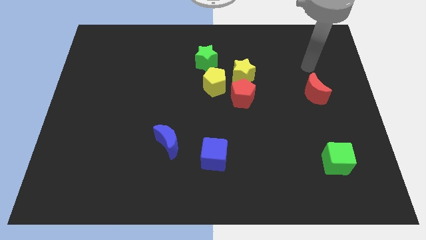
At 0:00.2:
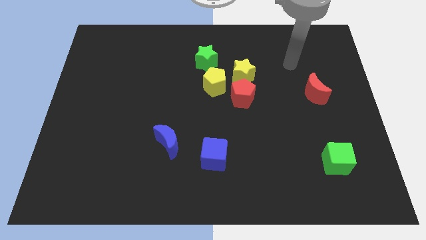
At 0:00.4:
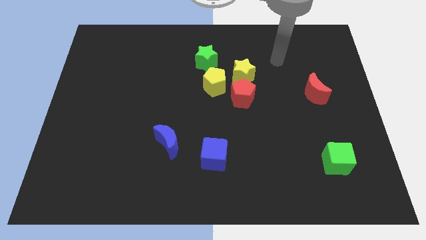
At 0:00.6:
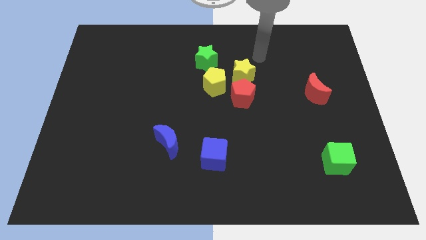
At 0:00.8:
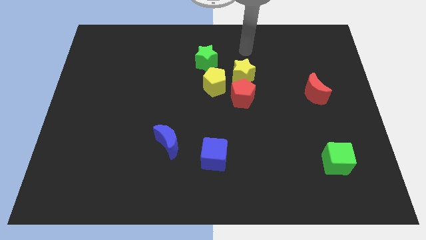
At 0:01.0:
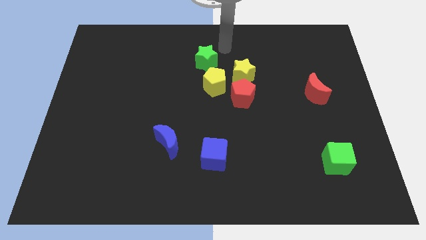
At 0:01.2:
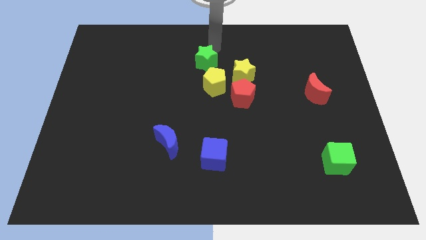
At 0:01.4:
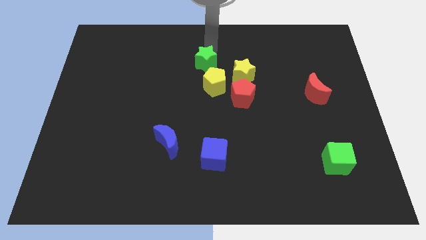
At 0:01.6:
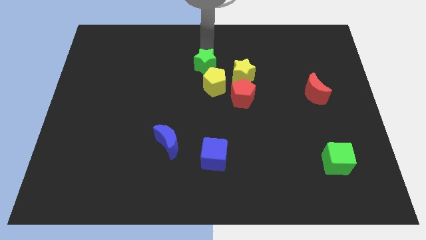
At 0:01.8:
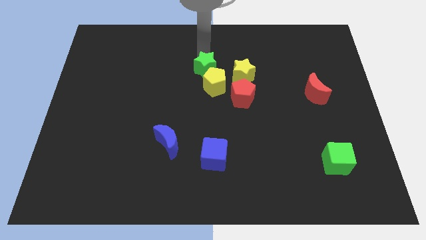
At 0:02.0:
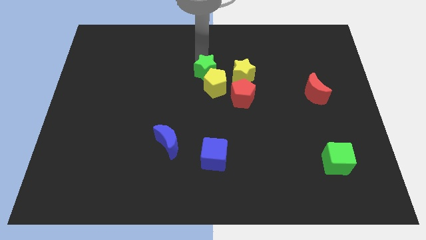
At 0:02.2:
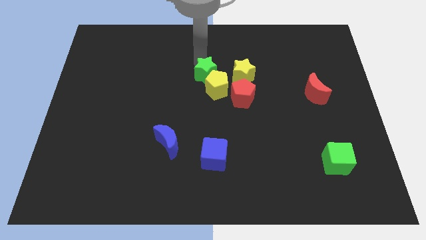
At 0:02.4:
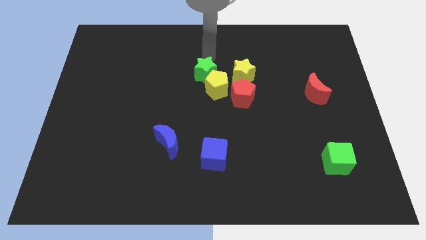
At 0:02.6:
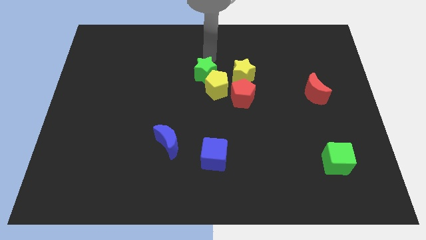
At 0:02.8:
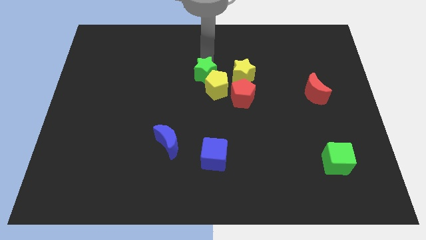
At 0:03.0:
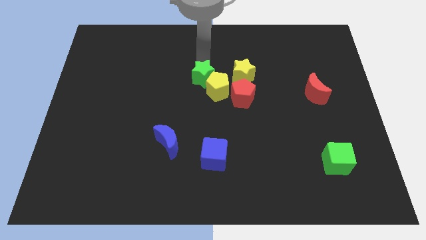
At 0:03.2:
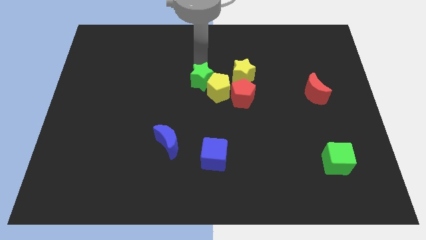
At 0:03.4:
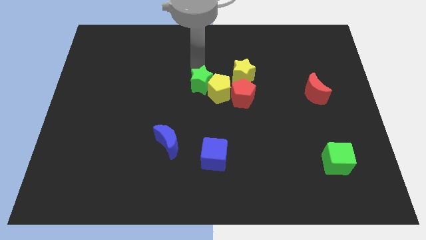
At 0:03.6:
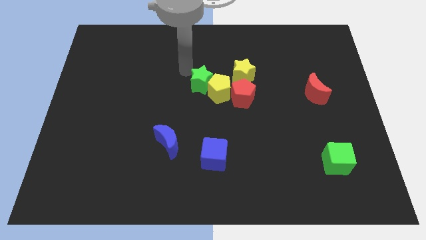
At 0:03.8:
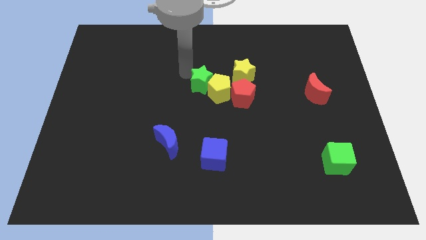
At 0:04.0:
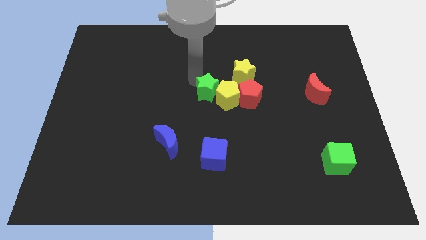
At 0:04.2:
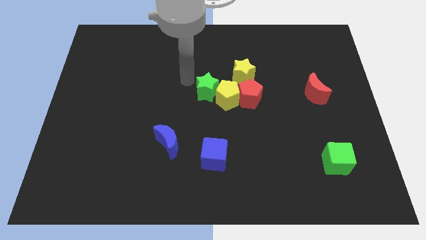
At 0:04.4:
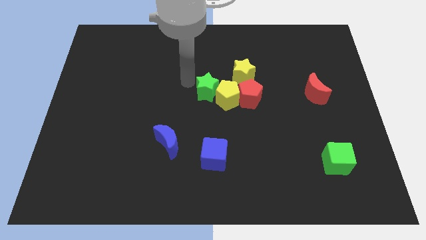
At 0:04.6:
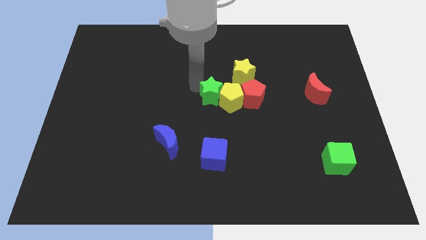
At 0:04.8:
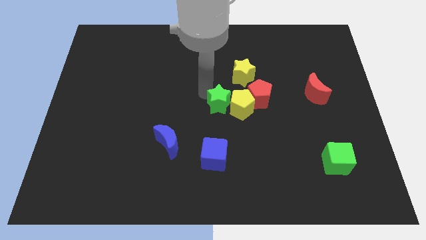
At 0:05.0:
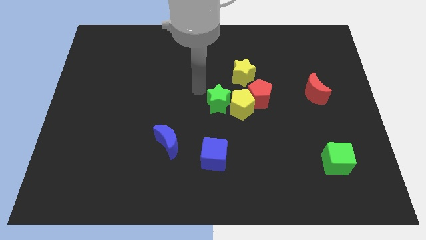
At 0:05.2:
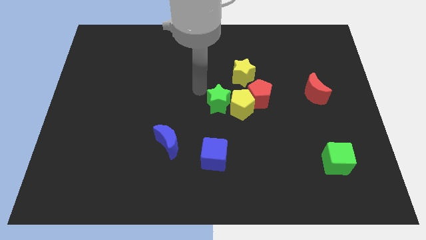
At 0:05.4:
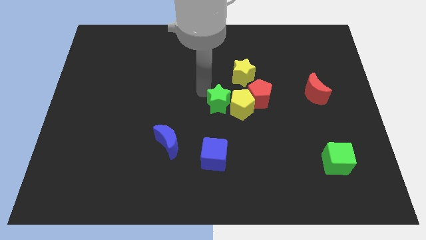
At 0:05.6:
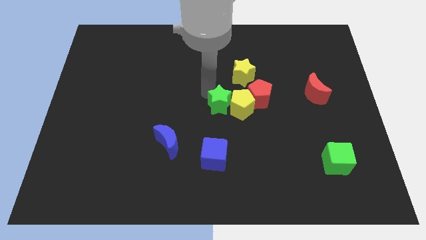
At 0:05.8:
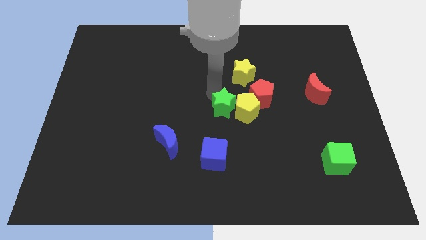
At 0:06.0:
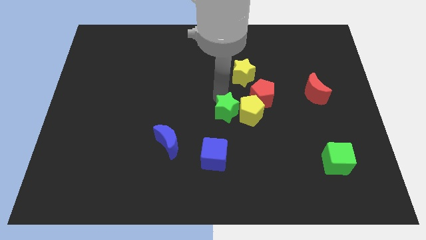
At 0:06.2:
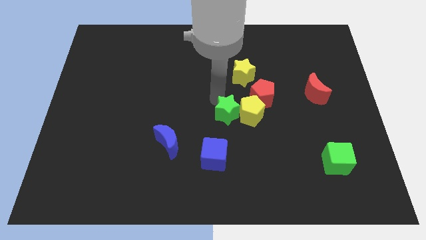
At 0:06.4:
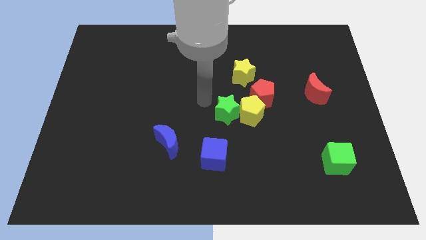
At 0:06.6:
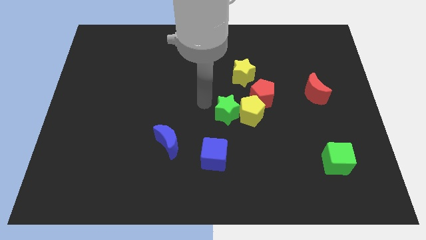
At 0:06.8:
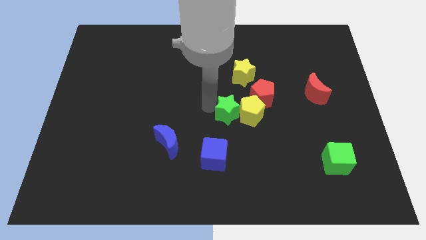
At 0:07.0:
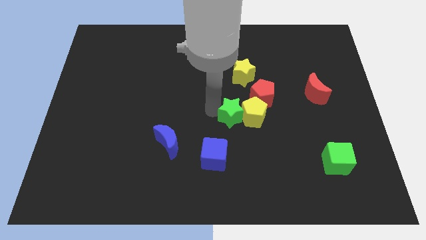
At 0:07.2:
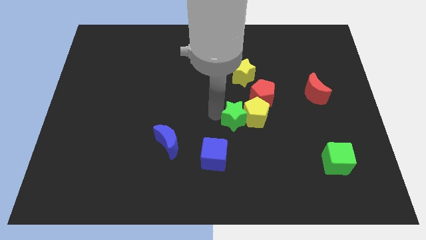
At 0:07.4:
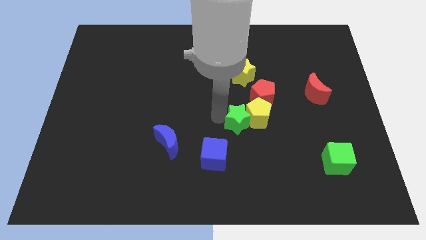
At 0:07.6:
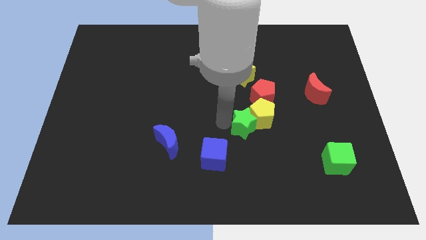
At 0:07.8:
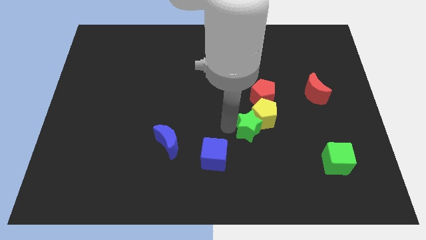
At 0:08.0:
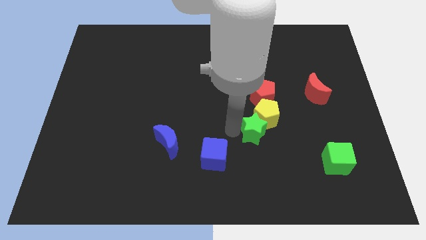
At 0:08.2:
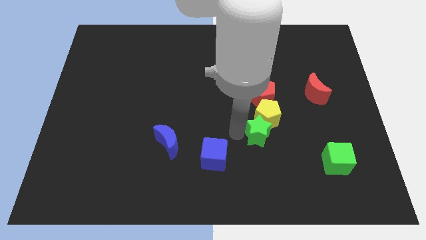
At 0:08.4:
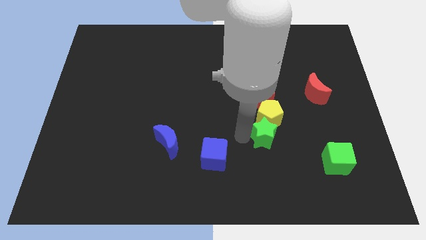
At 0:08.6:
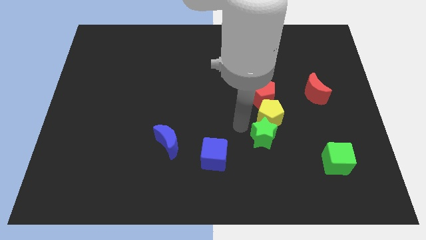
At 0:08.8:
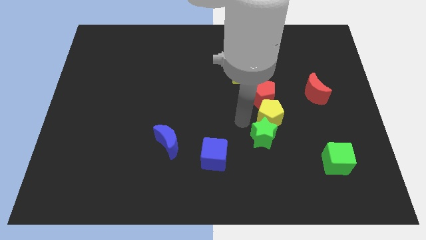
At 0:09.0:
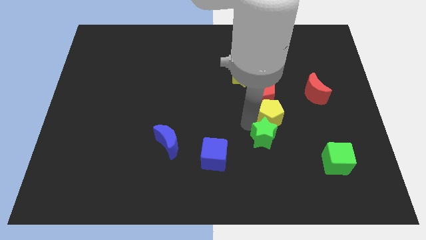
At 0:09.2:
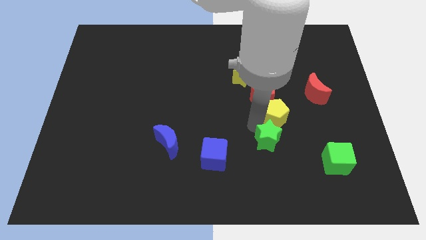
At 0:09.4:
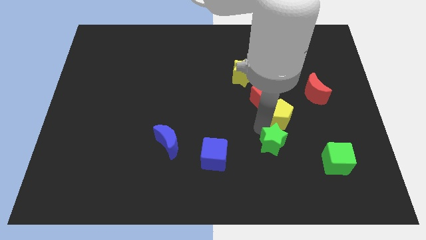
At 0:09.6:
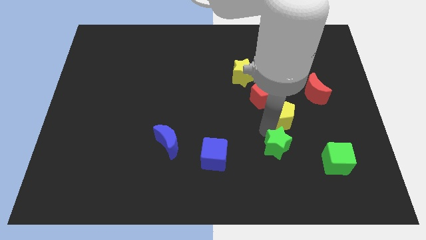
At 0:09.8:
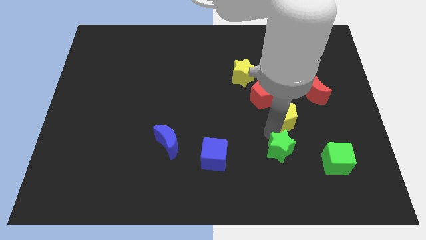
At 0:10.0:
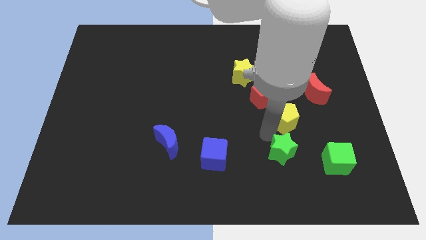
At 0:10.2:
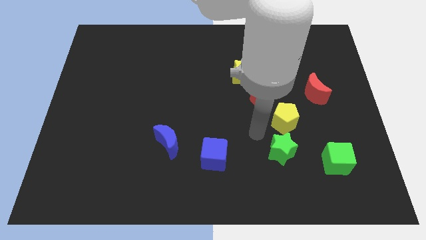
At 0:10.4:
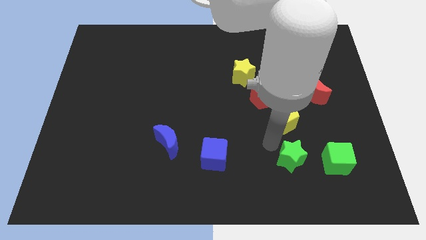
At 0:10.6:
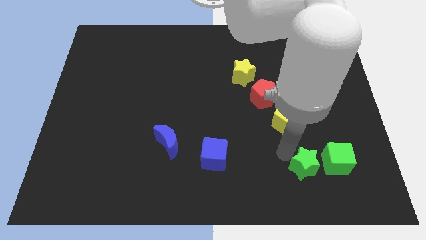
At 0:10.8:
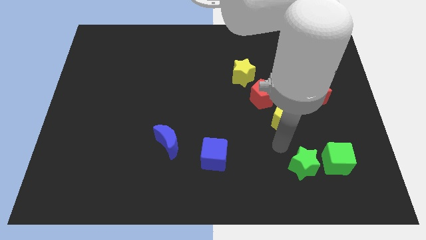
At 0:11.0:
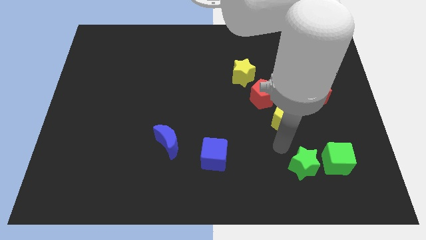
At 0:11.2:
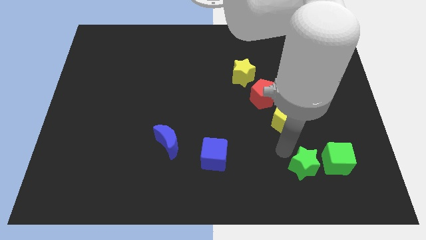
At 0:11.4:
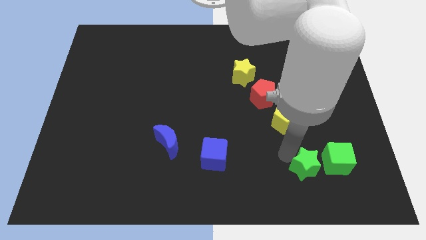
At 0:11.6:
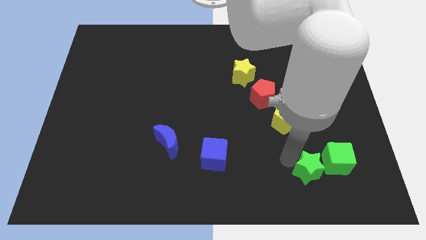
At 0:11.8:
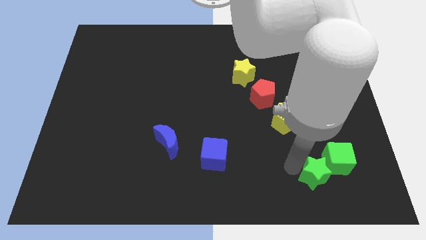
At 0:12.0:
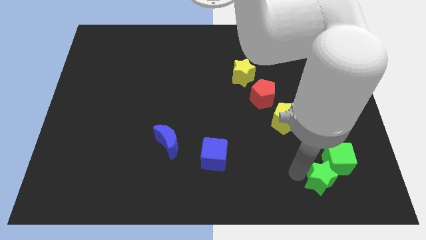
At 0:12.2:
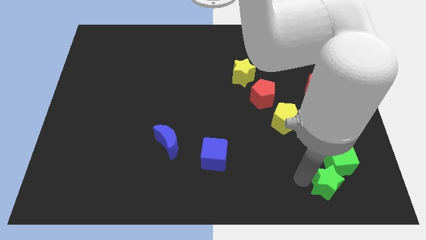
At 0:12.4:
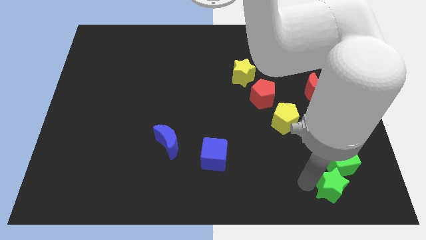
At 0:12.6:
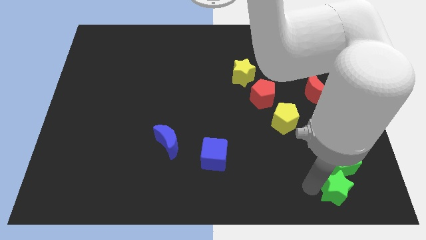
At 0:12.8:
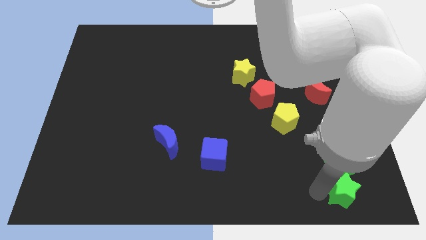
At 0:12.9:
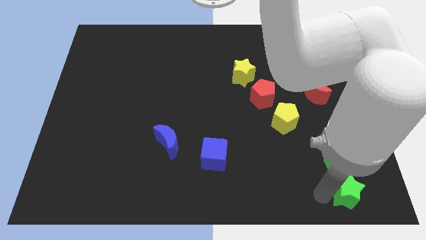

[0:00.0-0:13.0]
put the green star to the bottom right of the board

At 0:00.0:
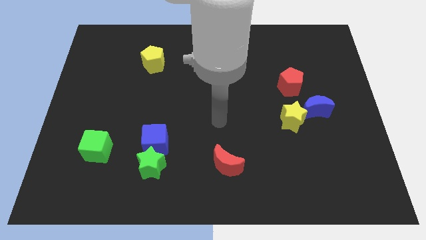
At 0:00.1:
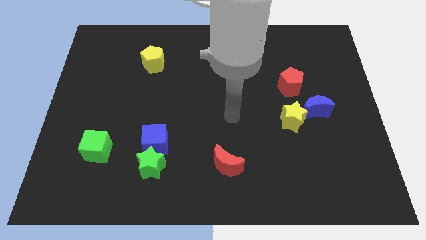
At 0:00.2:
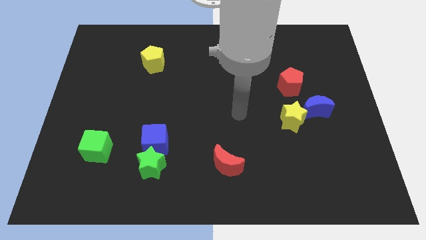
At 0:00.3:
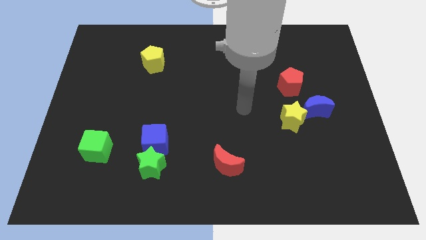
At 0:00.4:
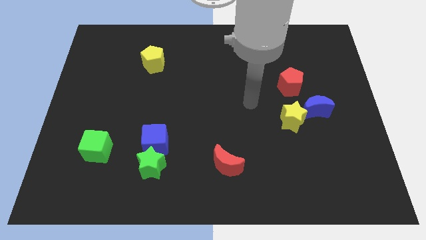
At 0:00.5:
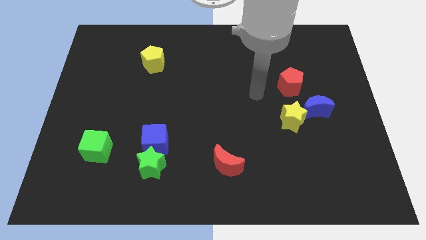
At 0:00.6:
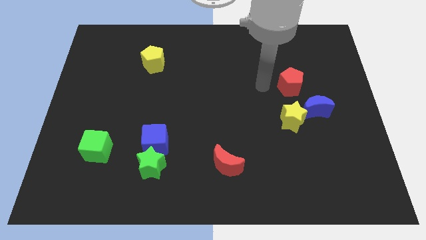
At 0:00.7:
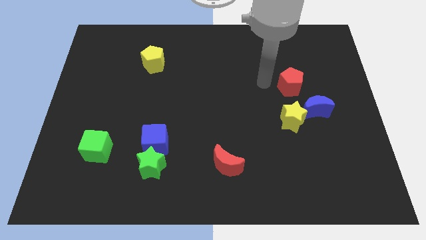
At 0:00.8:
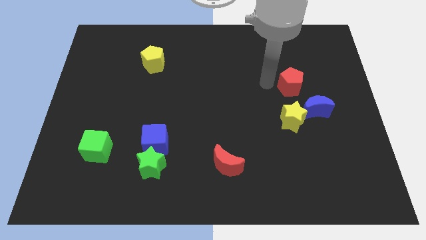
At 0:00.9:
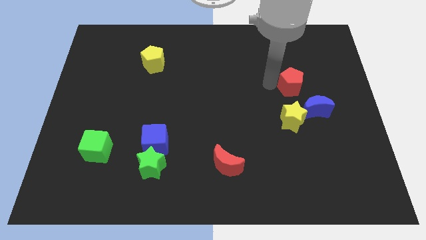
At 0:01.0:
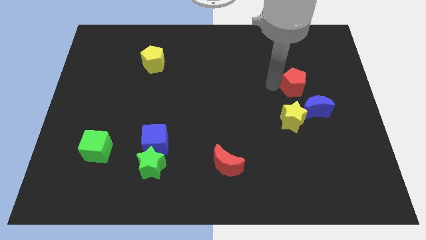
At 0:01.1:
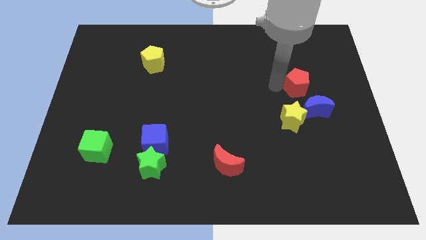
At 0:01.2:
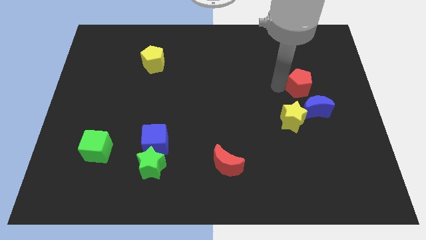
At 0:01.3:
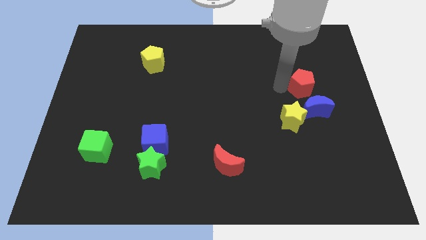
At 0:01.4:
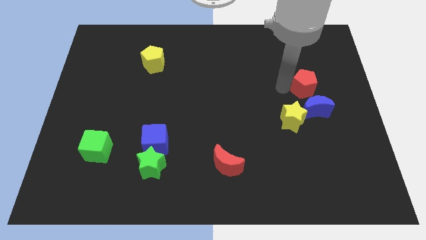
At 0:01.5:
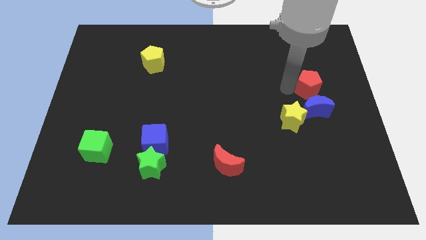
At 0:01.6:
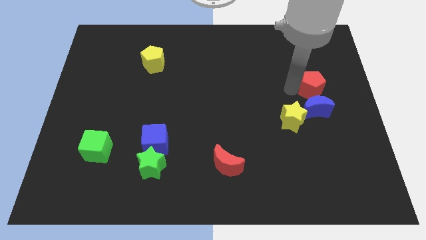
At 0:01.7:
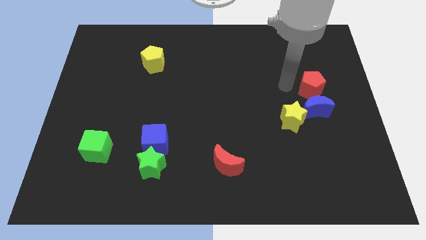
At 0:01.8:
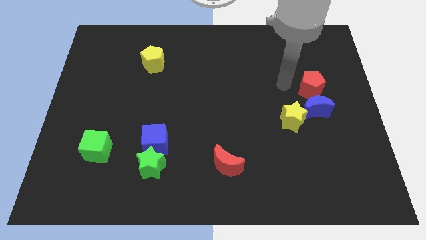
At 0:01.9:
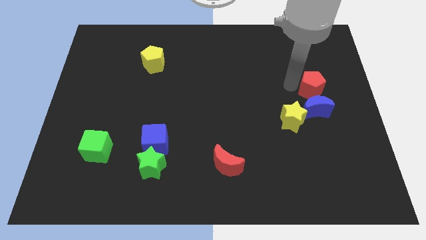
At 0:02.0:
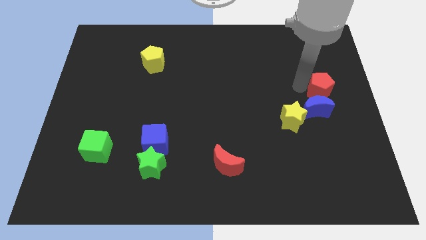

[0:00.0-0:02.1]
slide the red pentagon to the center right
